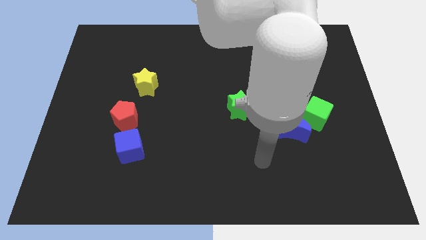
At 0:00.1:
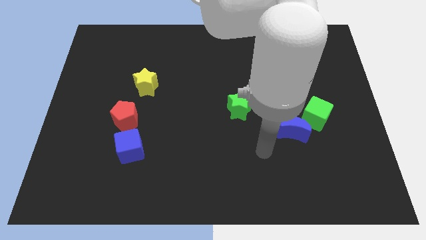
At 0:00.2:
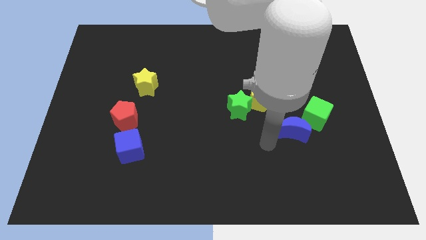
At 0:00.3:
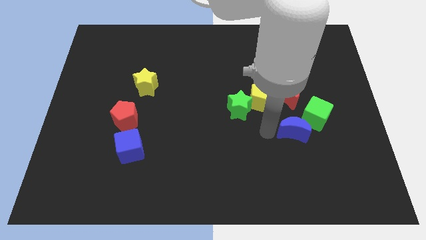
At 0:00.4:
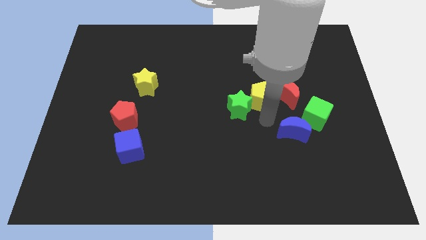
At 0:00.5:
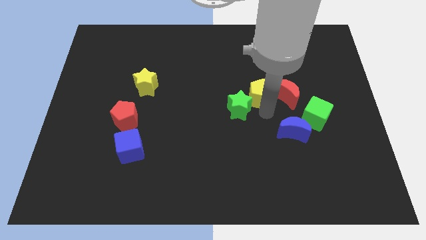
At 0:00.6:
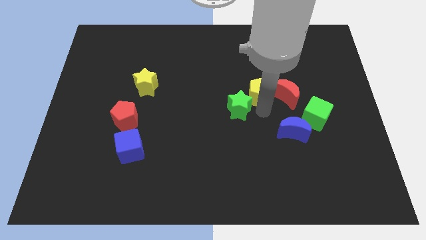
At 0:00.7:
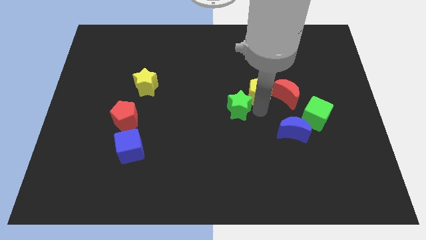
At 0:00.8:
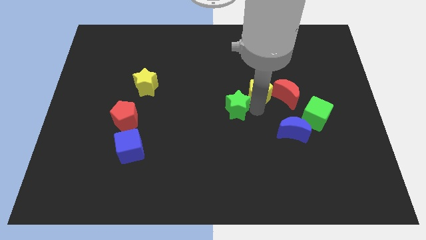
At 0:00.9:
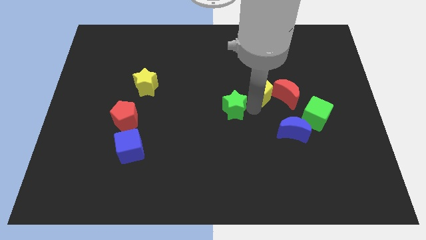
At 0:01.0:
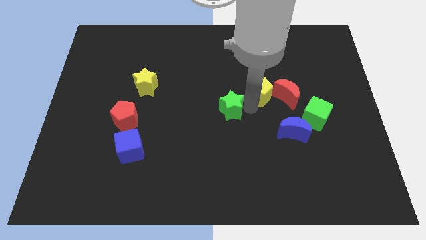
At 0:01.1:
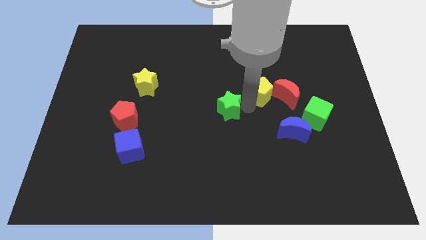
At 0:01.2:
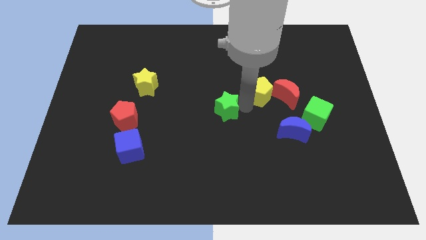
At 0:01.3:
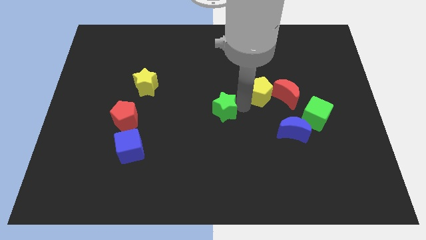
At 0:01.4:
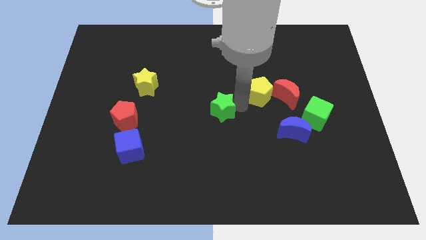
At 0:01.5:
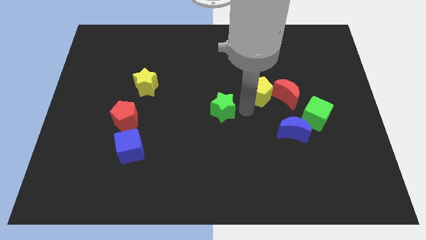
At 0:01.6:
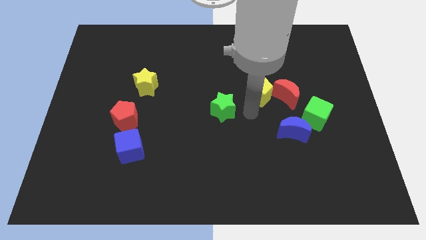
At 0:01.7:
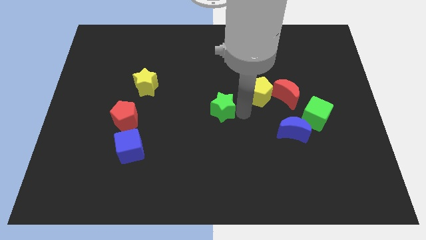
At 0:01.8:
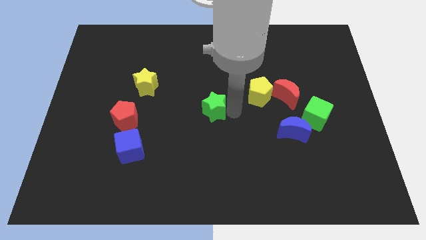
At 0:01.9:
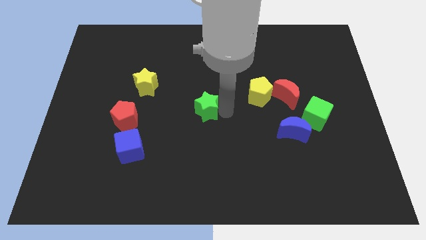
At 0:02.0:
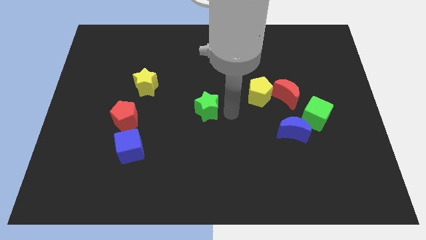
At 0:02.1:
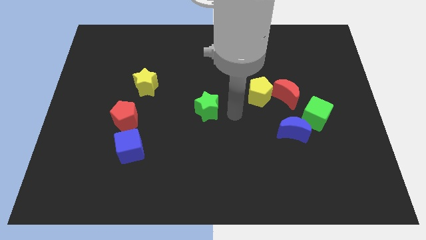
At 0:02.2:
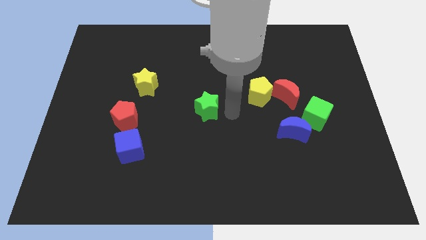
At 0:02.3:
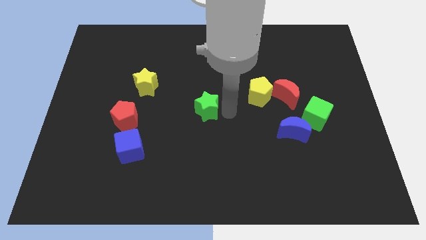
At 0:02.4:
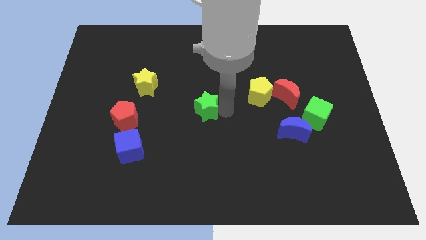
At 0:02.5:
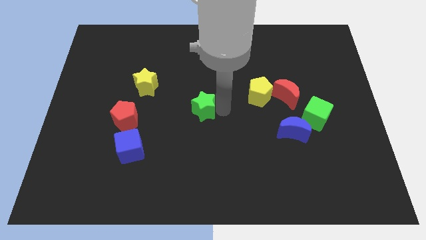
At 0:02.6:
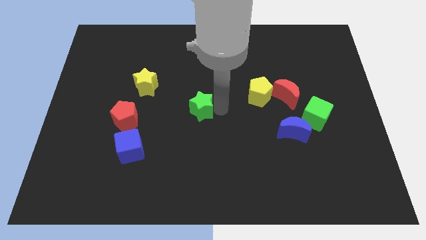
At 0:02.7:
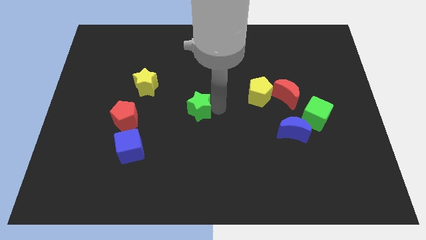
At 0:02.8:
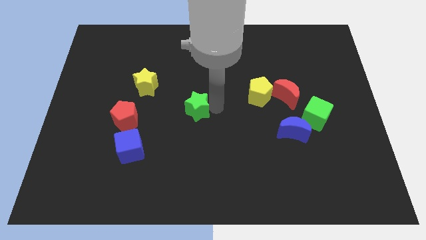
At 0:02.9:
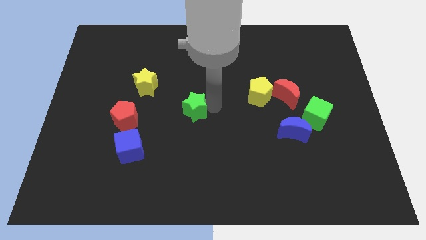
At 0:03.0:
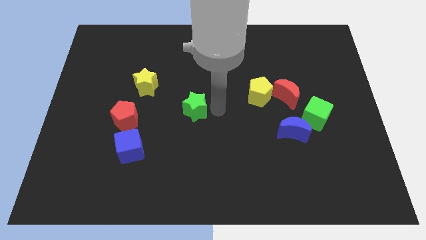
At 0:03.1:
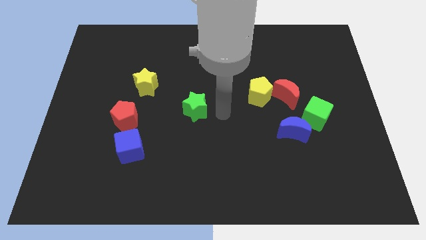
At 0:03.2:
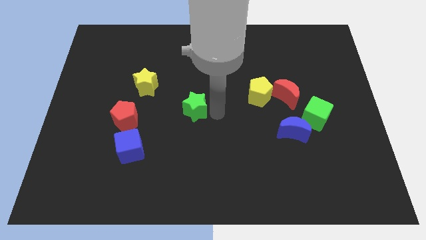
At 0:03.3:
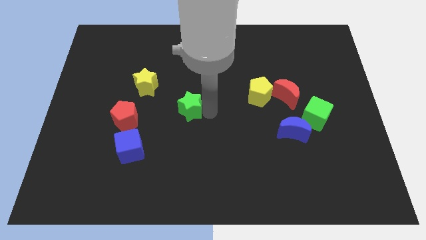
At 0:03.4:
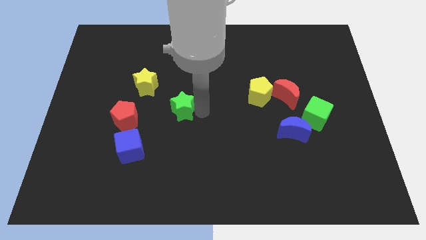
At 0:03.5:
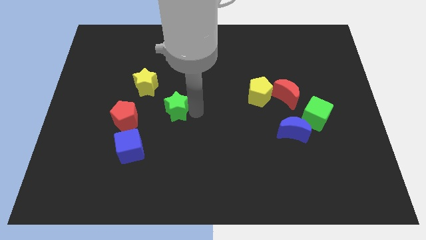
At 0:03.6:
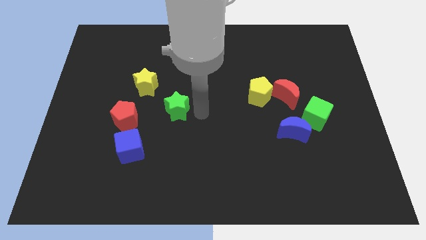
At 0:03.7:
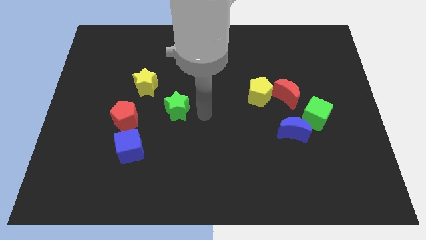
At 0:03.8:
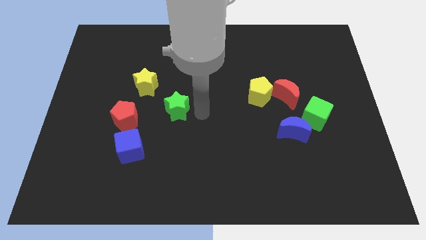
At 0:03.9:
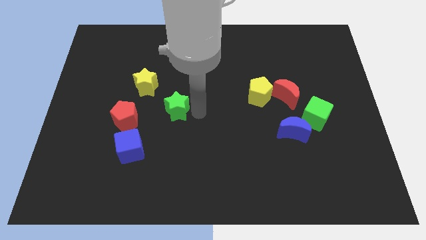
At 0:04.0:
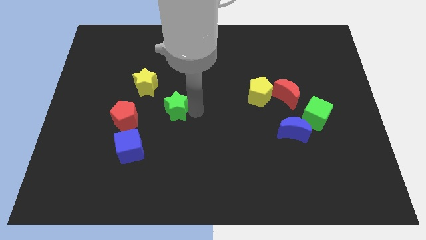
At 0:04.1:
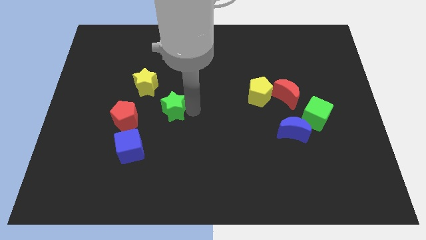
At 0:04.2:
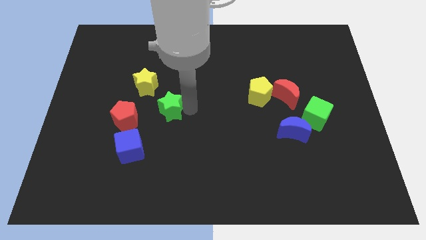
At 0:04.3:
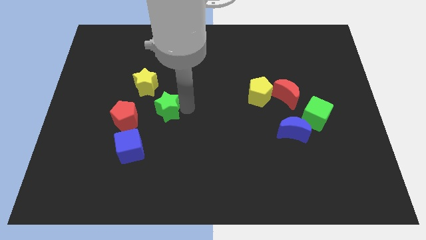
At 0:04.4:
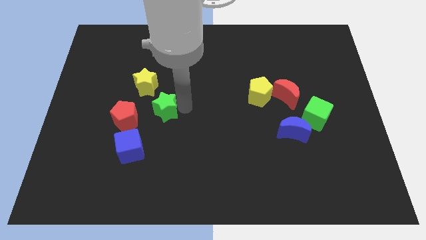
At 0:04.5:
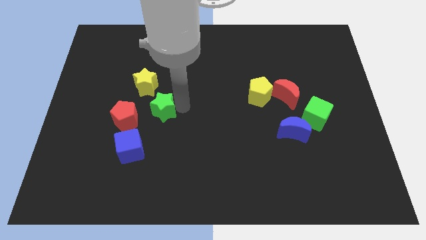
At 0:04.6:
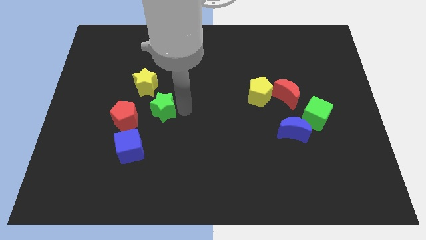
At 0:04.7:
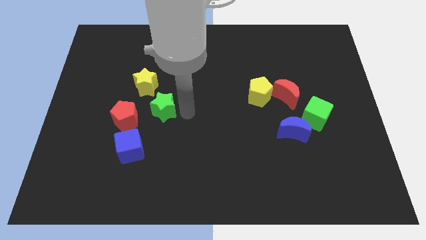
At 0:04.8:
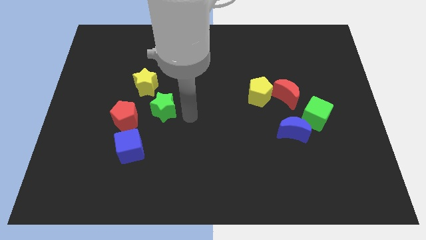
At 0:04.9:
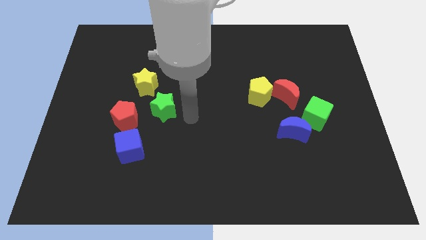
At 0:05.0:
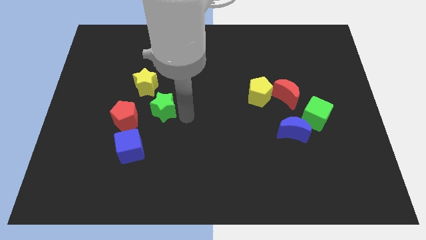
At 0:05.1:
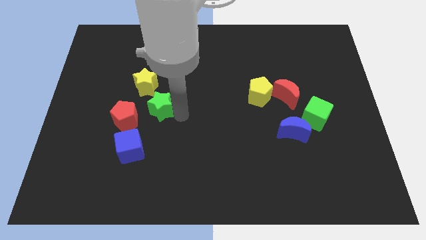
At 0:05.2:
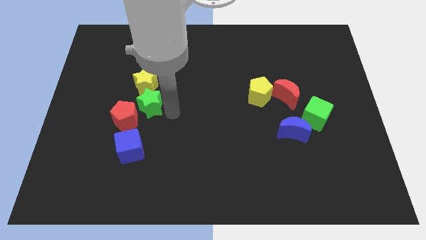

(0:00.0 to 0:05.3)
push the green star left

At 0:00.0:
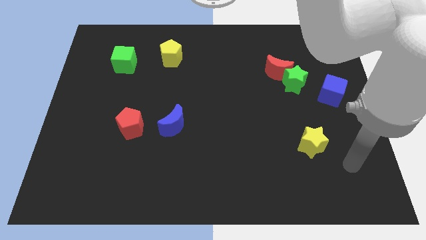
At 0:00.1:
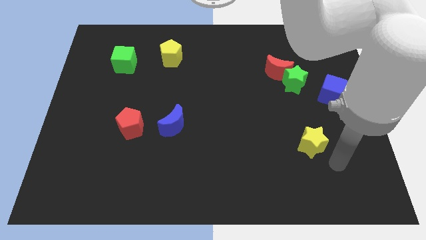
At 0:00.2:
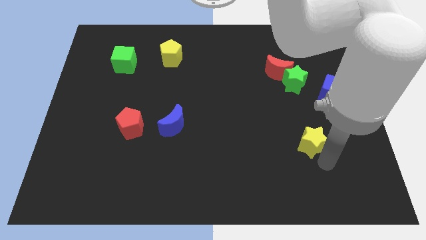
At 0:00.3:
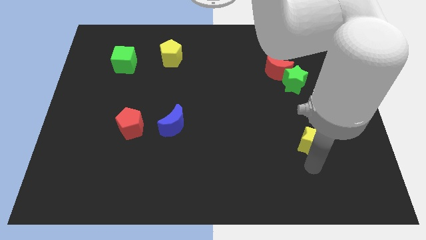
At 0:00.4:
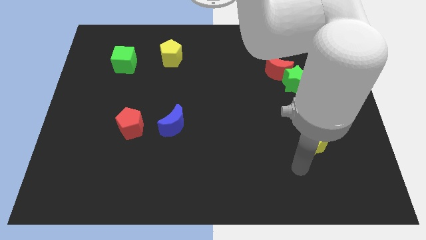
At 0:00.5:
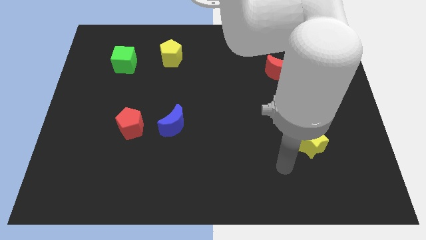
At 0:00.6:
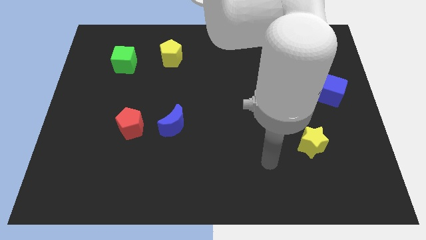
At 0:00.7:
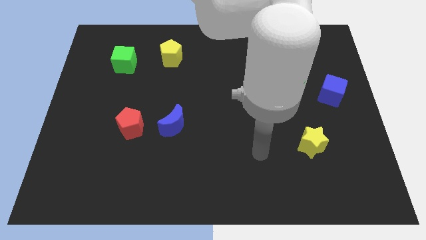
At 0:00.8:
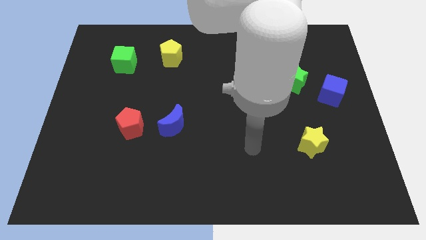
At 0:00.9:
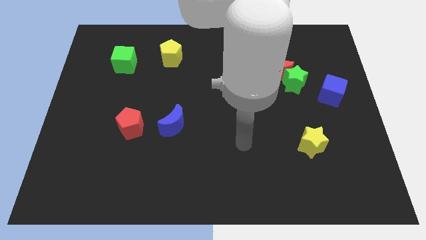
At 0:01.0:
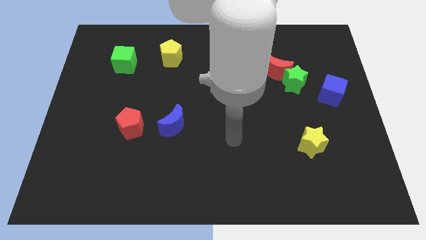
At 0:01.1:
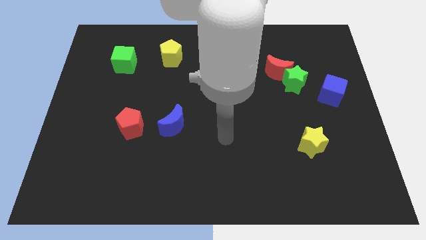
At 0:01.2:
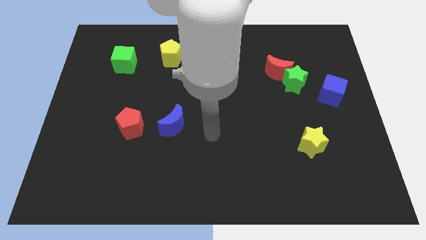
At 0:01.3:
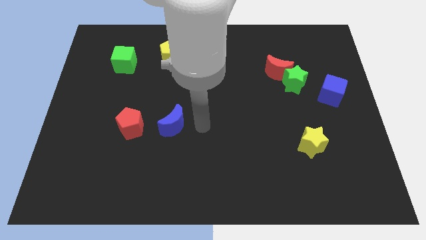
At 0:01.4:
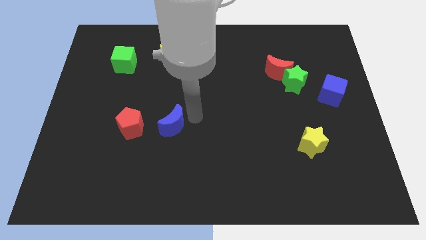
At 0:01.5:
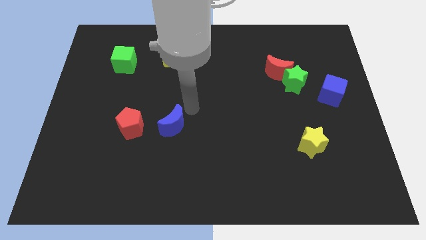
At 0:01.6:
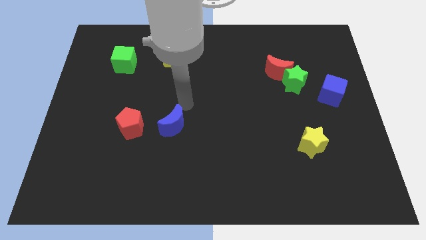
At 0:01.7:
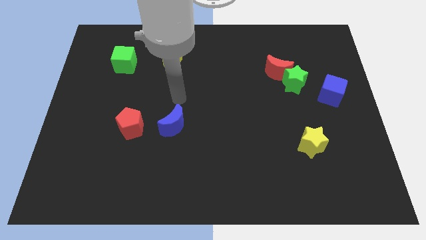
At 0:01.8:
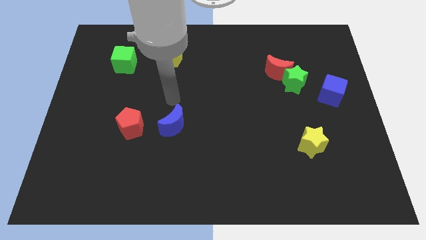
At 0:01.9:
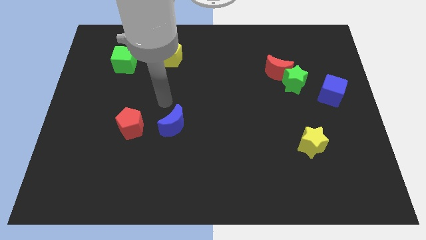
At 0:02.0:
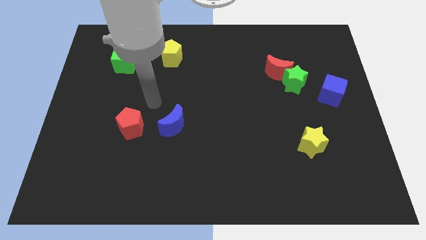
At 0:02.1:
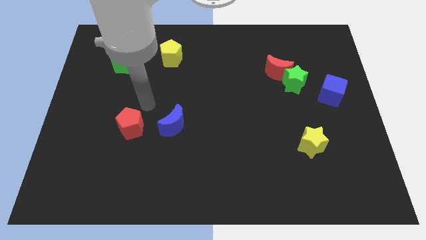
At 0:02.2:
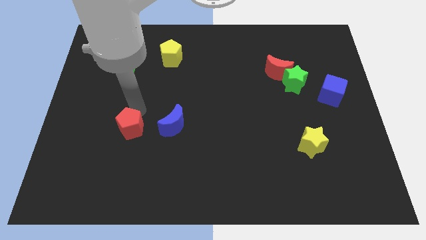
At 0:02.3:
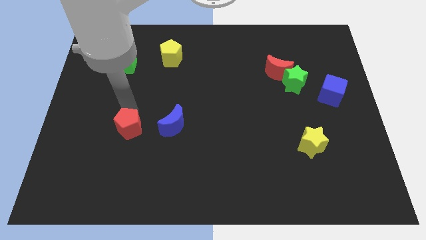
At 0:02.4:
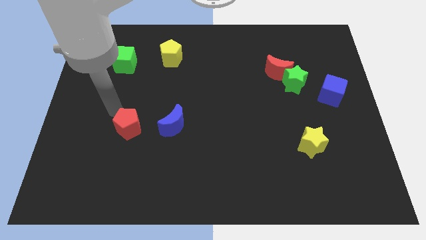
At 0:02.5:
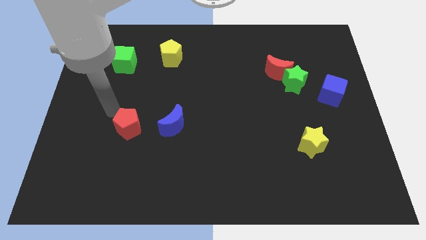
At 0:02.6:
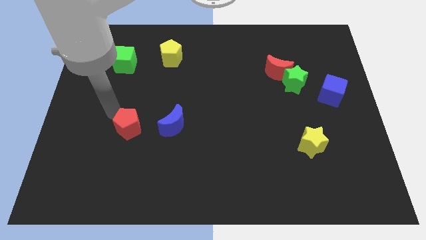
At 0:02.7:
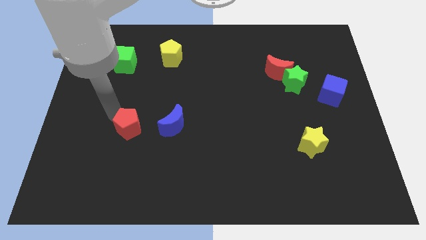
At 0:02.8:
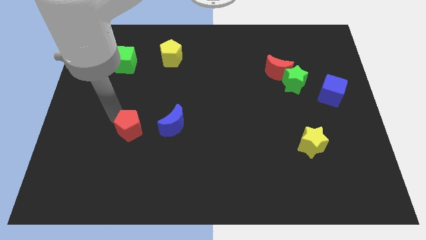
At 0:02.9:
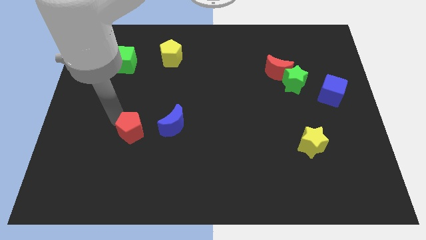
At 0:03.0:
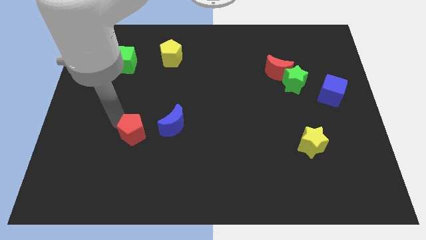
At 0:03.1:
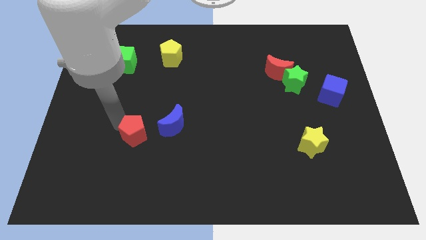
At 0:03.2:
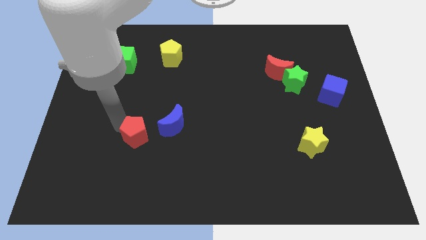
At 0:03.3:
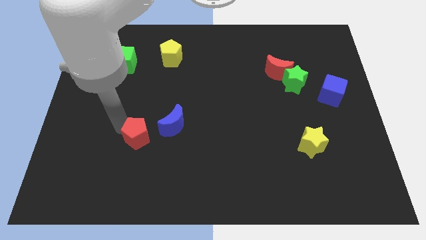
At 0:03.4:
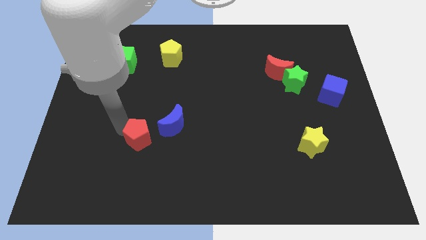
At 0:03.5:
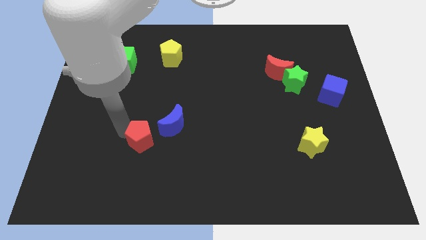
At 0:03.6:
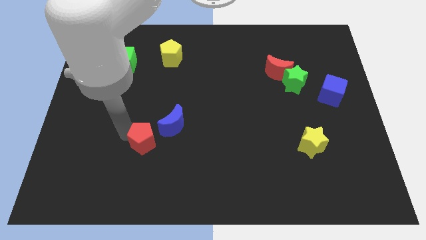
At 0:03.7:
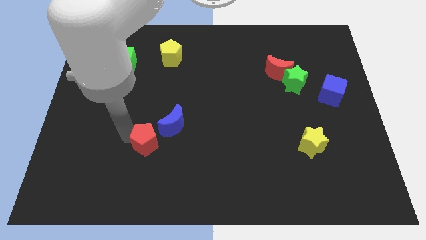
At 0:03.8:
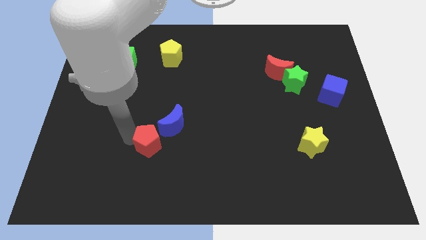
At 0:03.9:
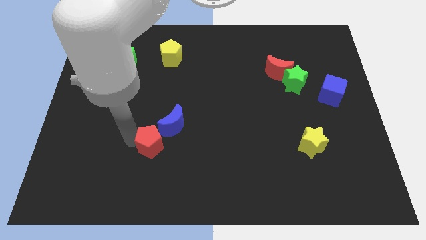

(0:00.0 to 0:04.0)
move the red pentagon down and to the right diagonally a little bit
